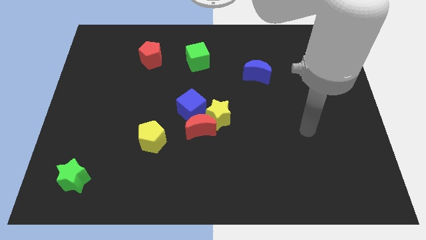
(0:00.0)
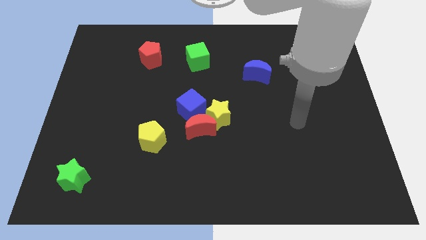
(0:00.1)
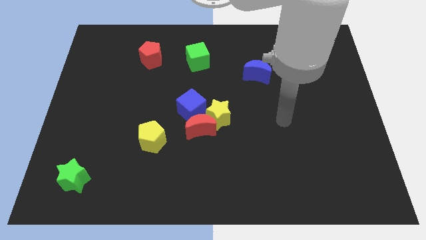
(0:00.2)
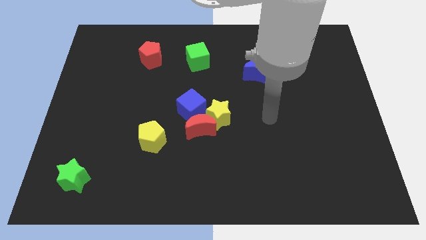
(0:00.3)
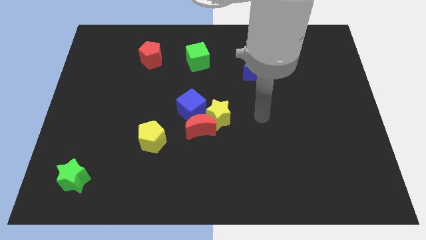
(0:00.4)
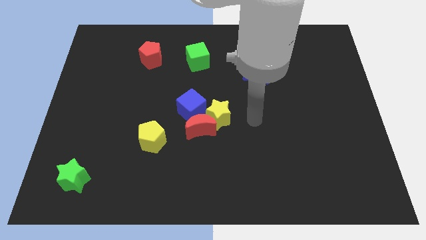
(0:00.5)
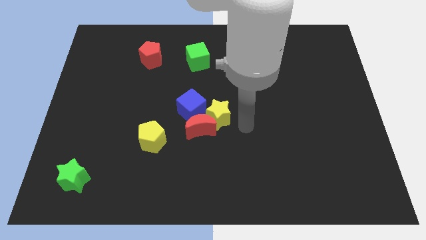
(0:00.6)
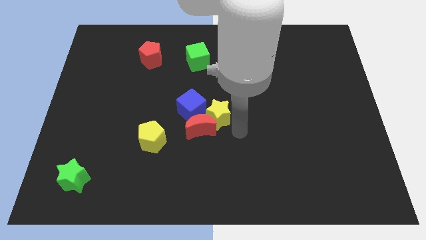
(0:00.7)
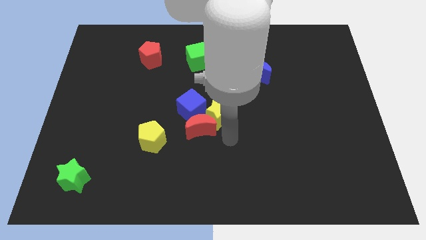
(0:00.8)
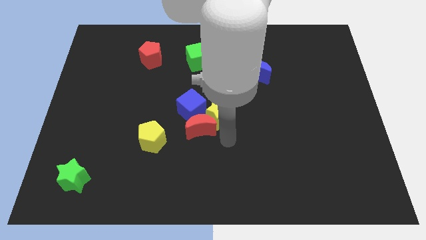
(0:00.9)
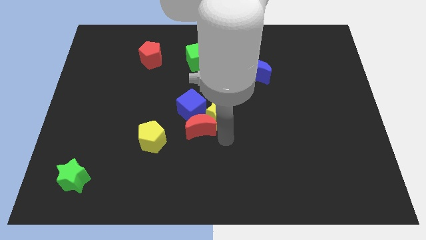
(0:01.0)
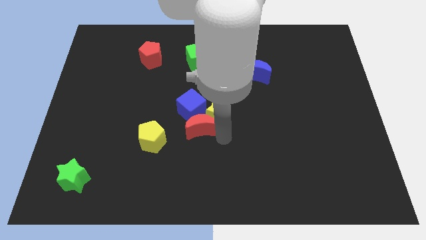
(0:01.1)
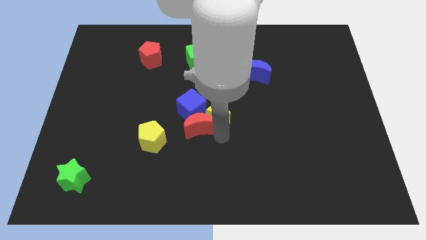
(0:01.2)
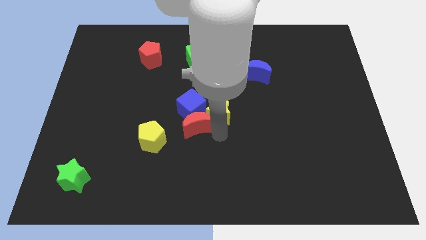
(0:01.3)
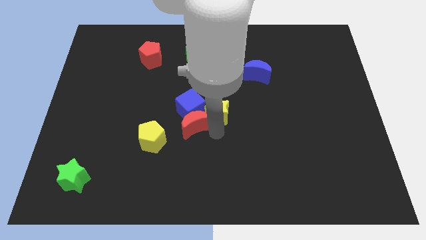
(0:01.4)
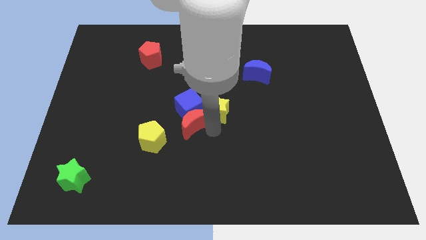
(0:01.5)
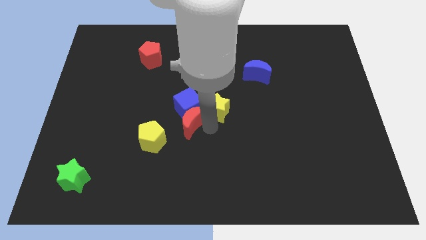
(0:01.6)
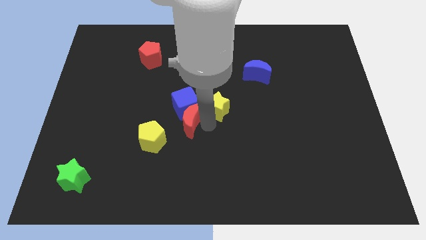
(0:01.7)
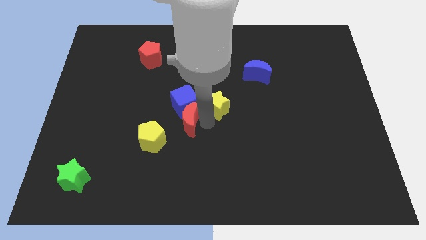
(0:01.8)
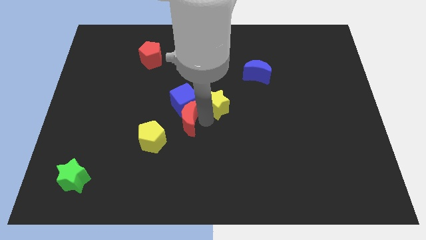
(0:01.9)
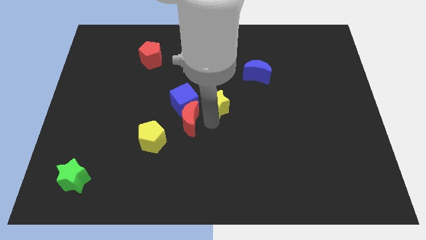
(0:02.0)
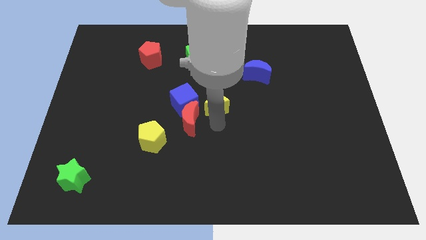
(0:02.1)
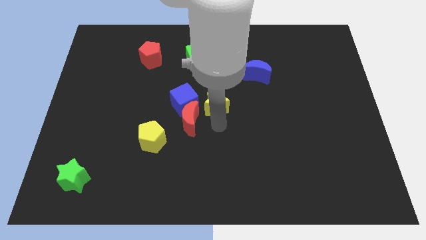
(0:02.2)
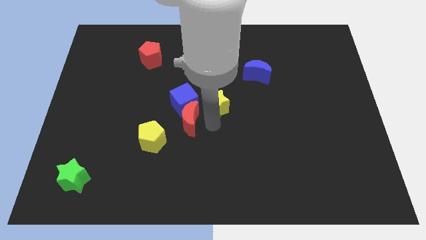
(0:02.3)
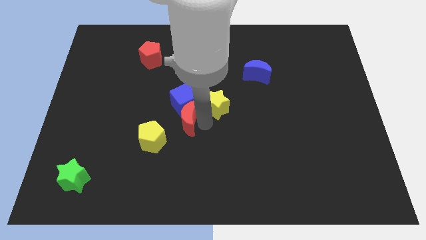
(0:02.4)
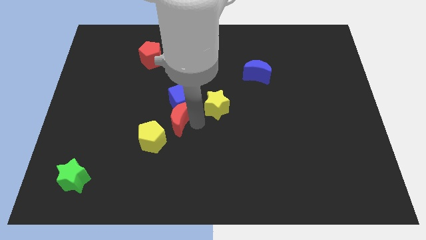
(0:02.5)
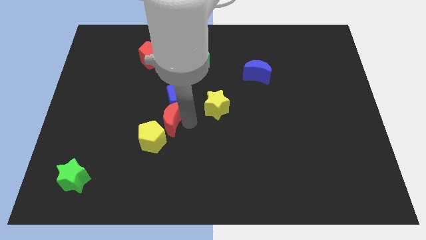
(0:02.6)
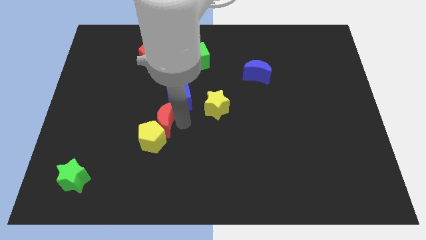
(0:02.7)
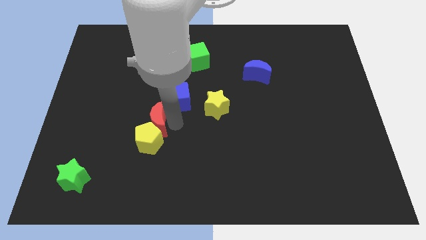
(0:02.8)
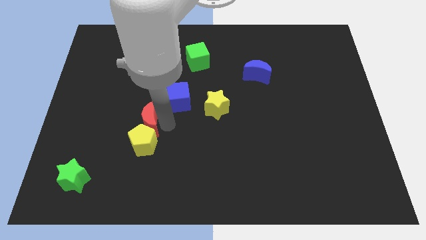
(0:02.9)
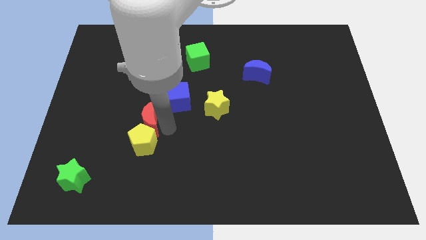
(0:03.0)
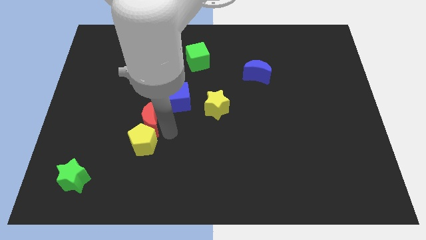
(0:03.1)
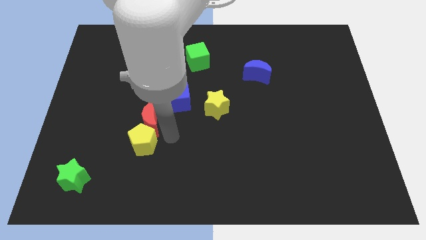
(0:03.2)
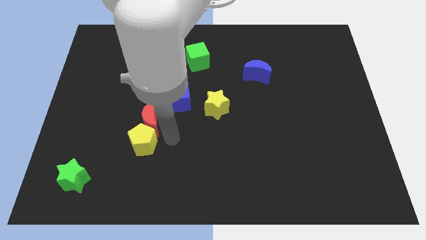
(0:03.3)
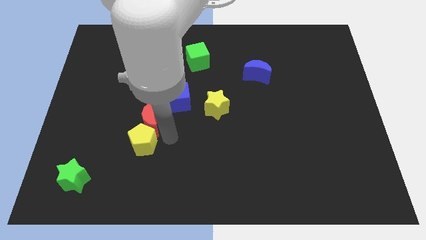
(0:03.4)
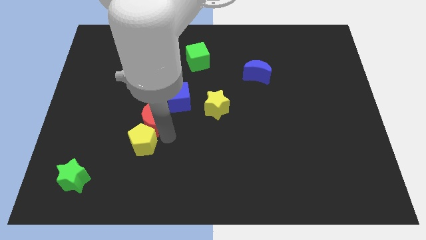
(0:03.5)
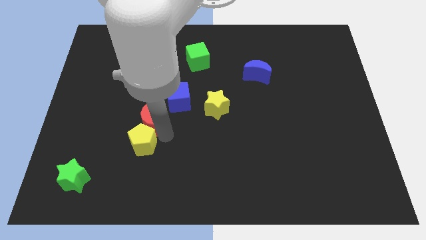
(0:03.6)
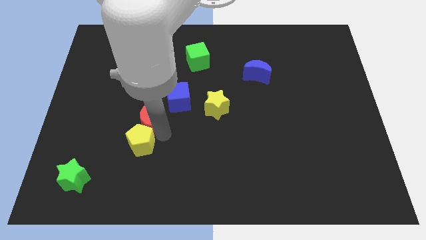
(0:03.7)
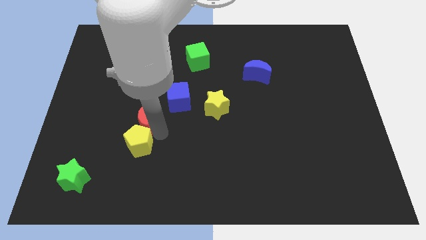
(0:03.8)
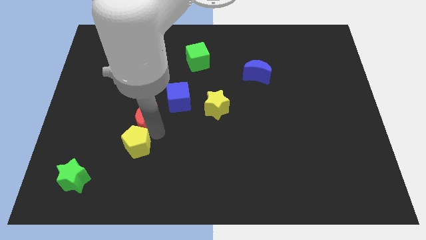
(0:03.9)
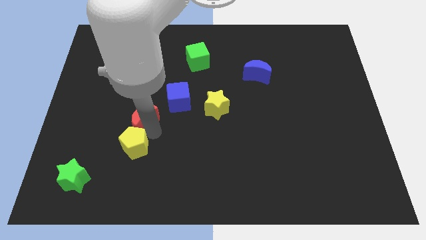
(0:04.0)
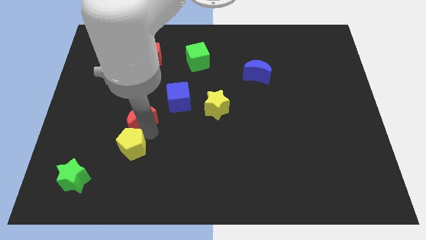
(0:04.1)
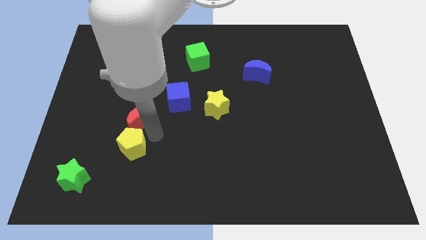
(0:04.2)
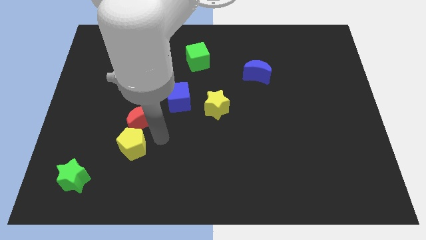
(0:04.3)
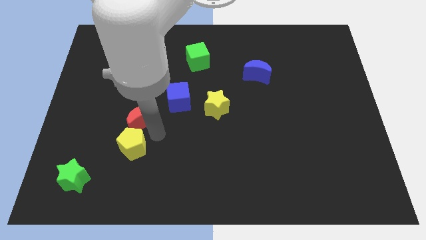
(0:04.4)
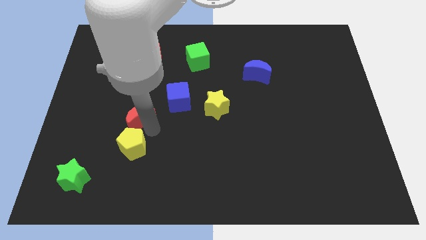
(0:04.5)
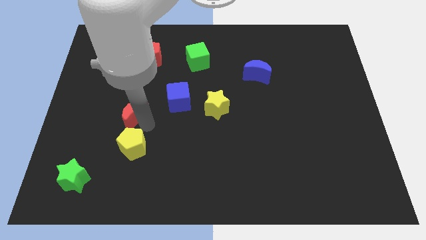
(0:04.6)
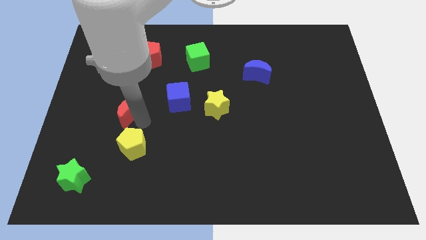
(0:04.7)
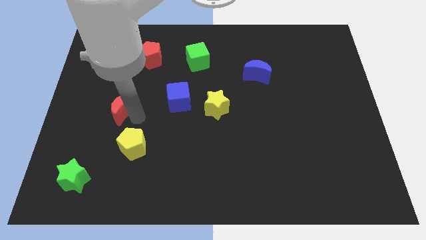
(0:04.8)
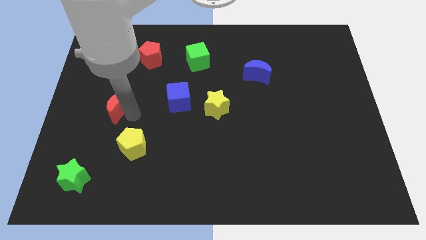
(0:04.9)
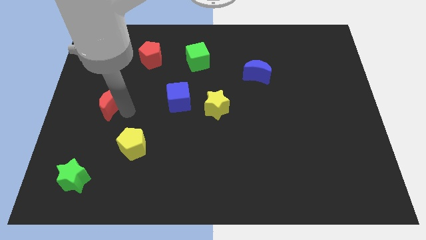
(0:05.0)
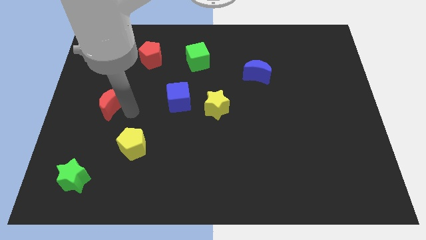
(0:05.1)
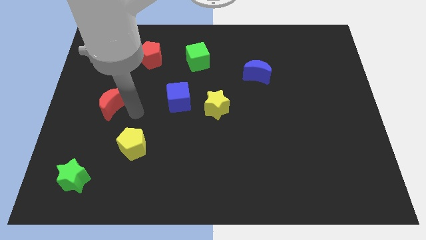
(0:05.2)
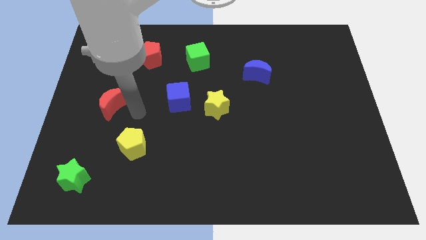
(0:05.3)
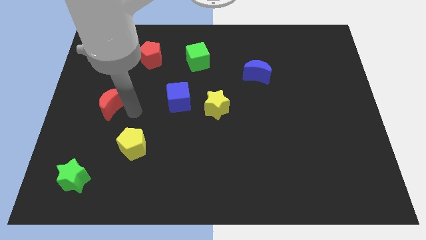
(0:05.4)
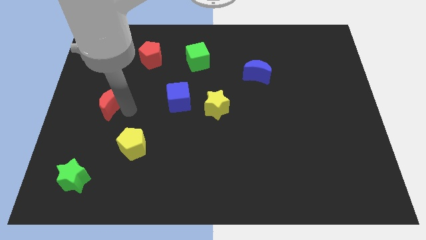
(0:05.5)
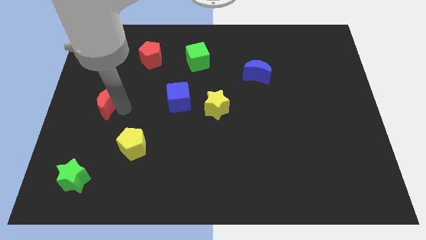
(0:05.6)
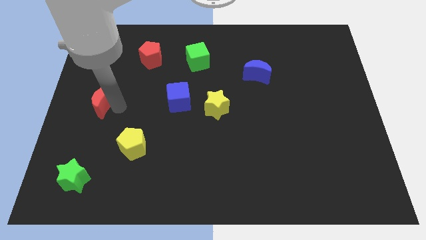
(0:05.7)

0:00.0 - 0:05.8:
slide the red moon to the left side
